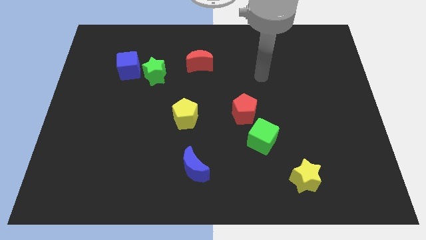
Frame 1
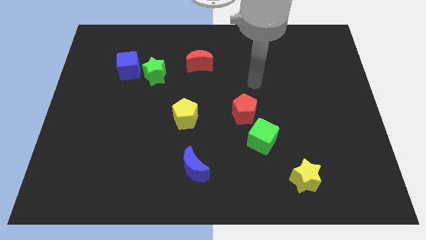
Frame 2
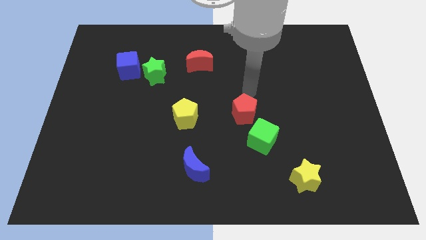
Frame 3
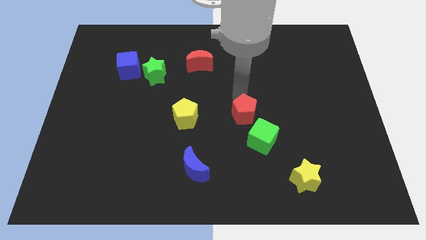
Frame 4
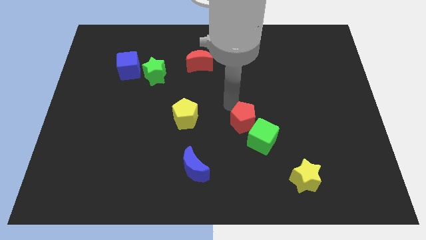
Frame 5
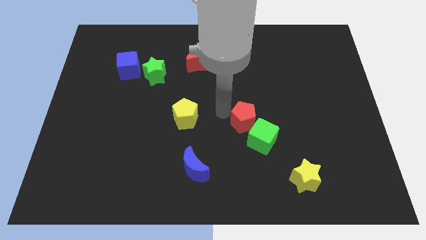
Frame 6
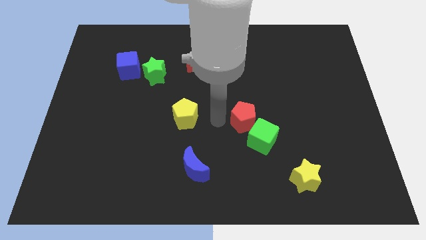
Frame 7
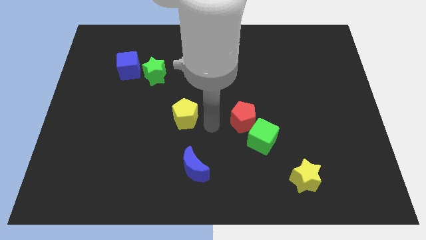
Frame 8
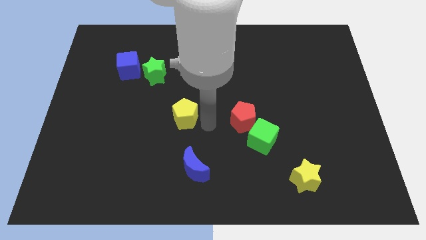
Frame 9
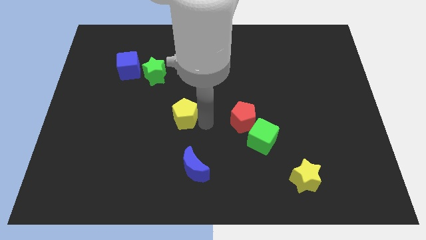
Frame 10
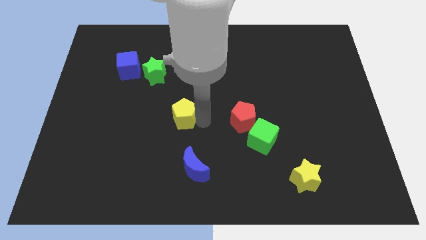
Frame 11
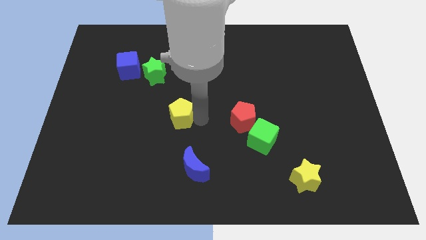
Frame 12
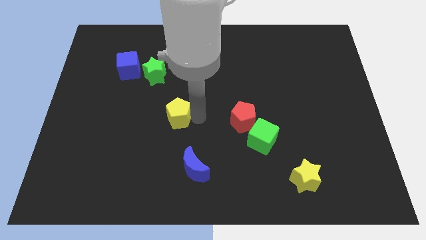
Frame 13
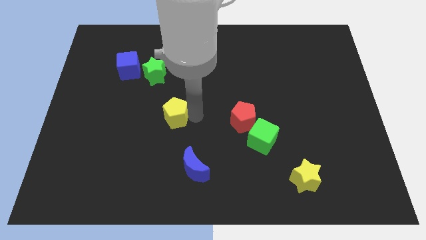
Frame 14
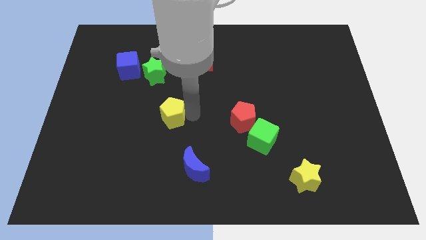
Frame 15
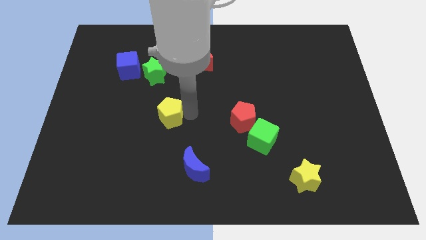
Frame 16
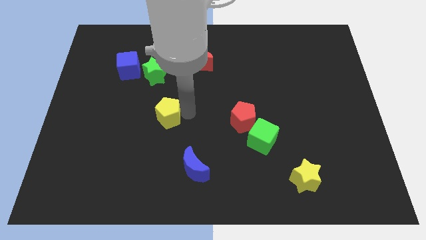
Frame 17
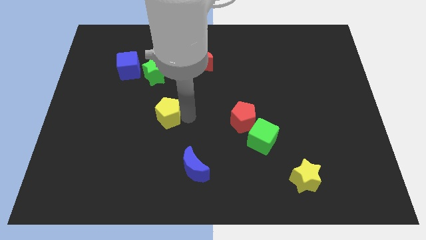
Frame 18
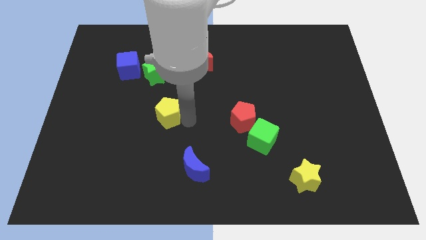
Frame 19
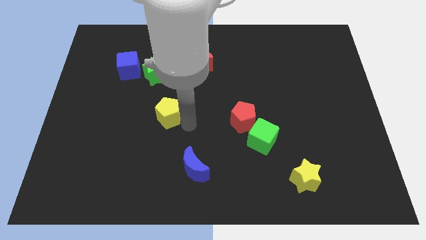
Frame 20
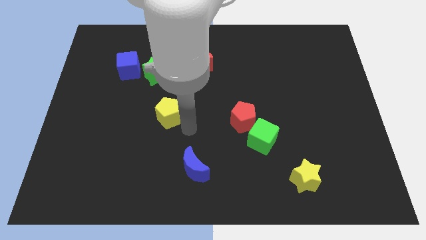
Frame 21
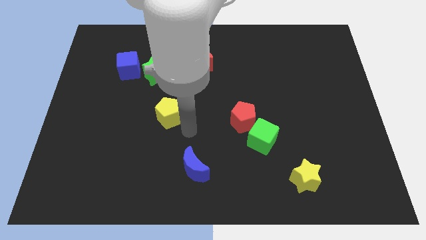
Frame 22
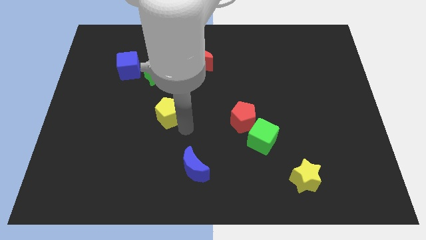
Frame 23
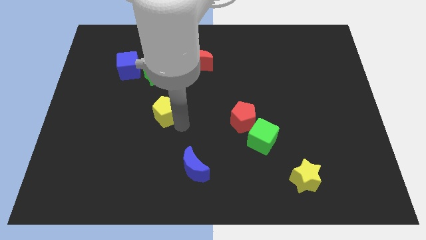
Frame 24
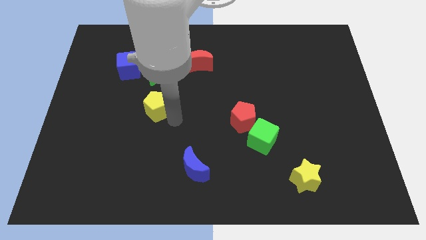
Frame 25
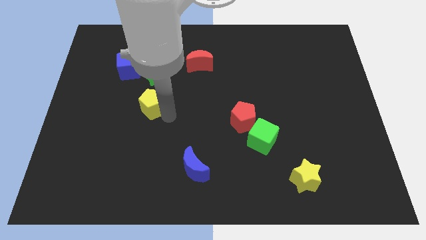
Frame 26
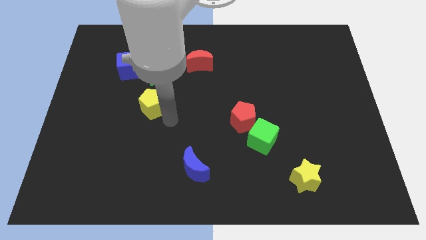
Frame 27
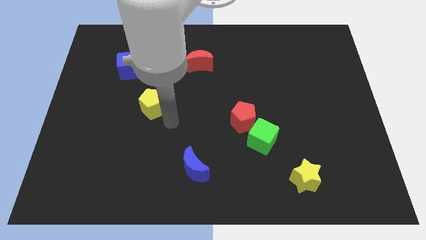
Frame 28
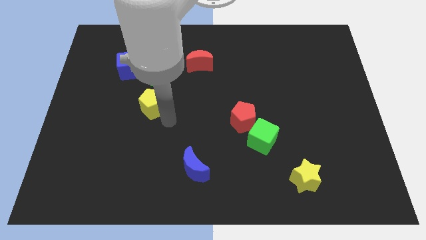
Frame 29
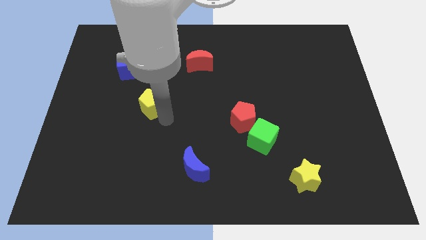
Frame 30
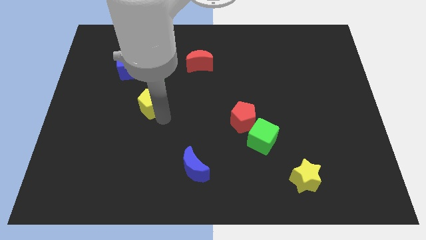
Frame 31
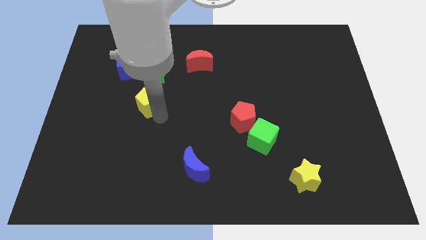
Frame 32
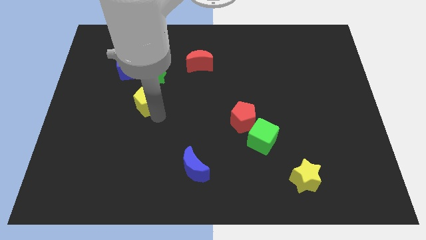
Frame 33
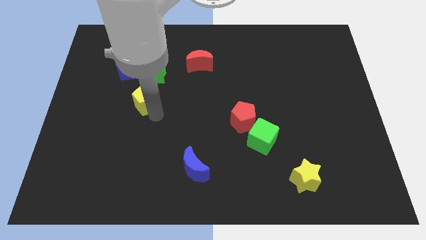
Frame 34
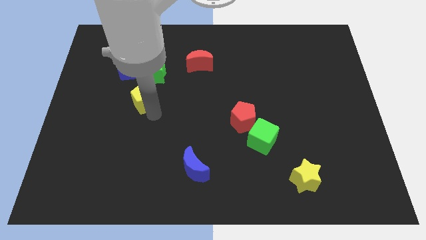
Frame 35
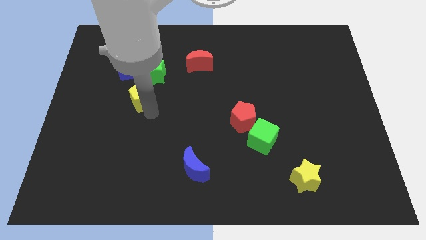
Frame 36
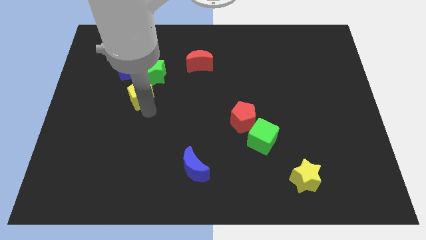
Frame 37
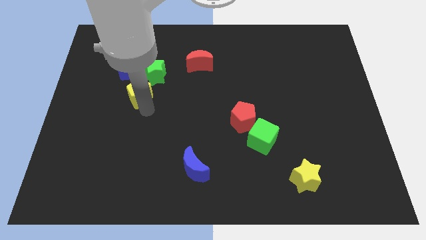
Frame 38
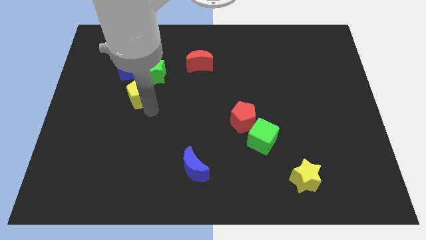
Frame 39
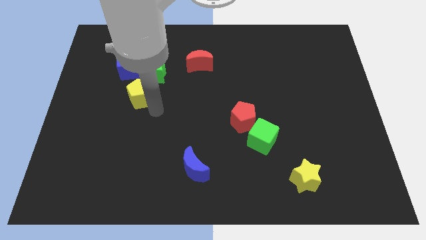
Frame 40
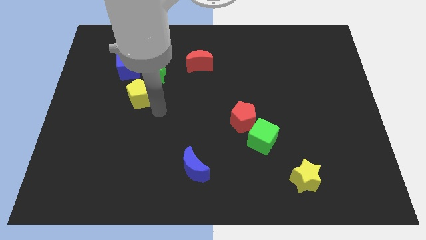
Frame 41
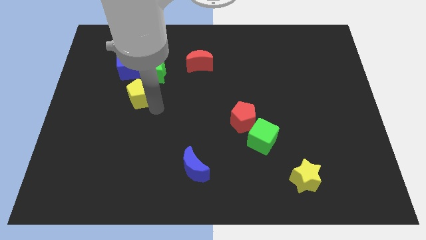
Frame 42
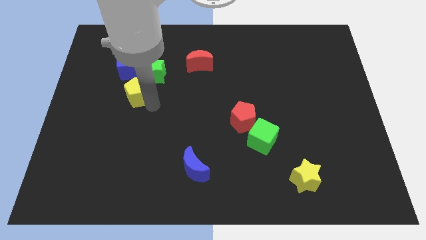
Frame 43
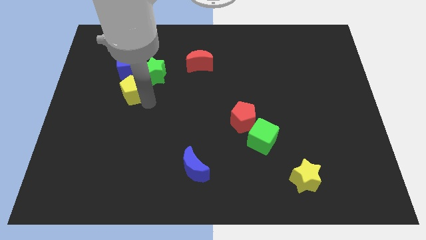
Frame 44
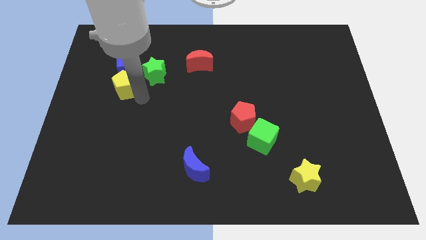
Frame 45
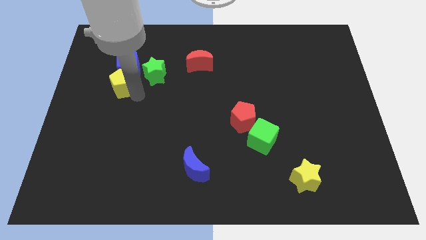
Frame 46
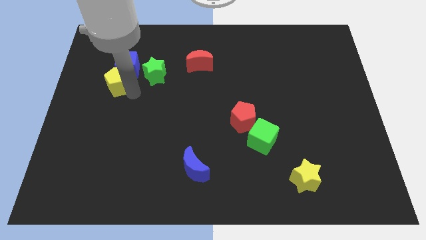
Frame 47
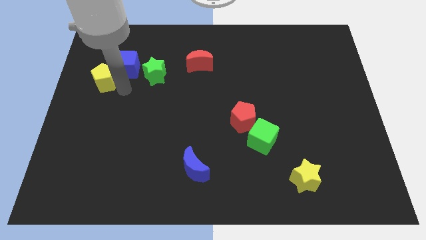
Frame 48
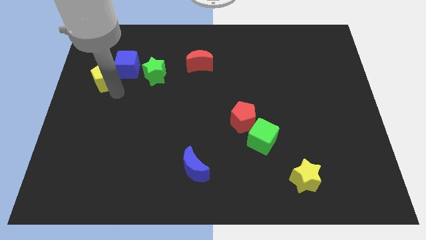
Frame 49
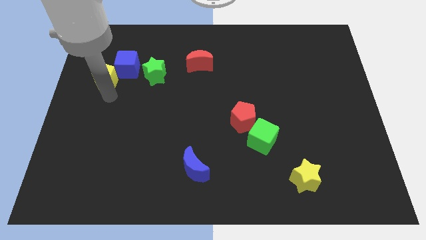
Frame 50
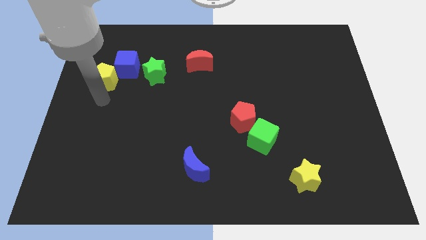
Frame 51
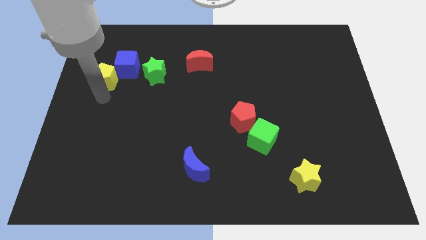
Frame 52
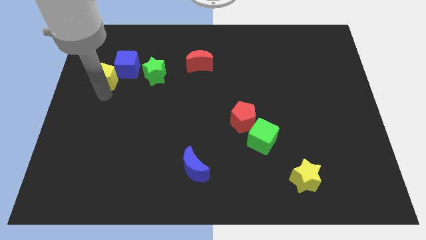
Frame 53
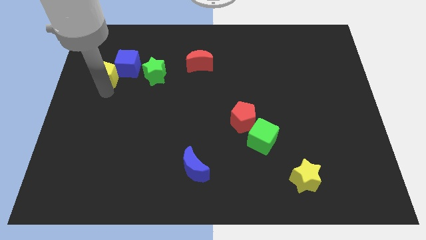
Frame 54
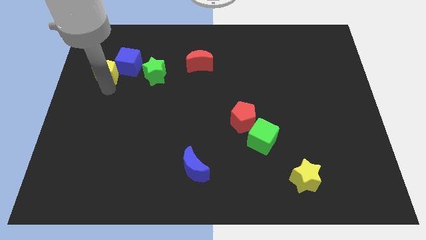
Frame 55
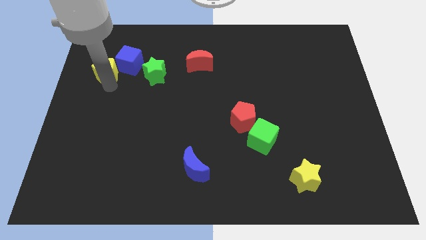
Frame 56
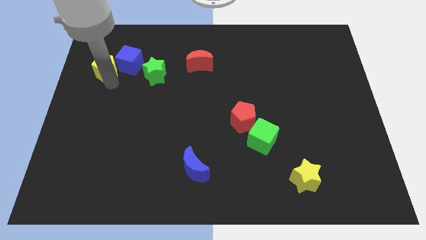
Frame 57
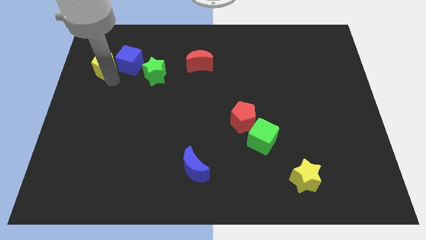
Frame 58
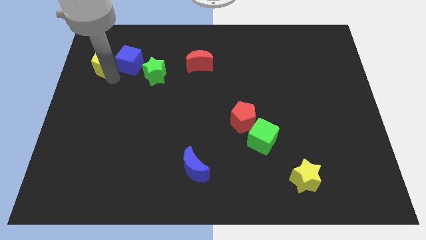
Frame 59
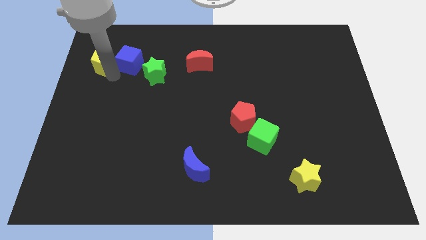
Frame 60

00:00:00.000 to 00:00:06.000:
put the yellow pentagon diagonally up and to the left of the blue cube
